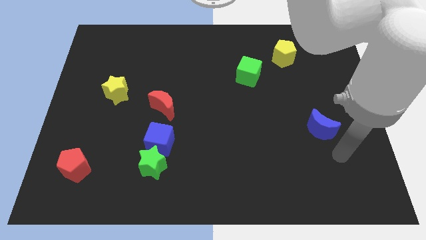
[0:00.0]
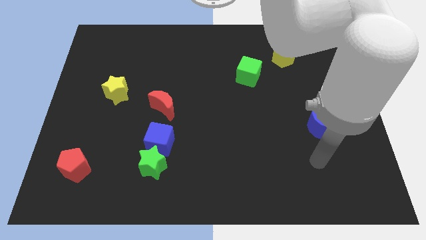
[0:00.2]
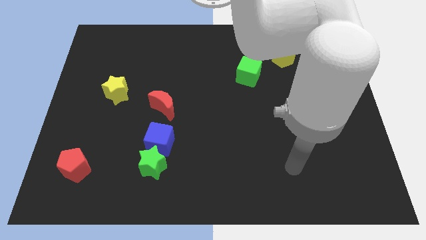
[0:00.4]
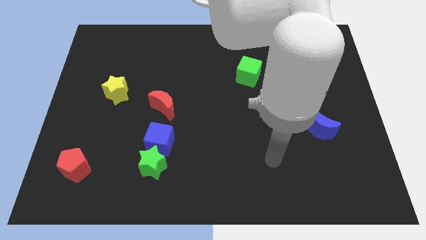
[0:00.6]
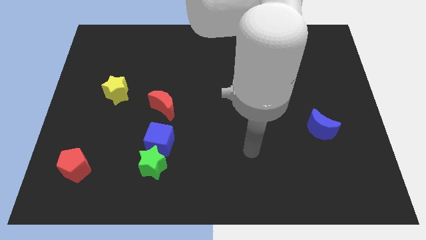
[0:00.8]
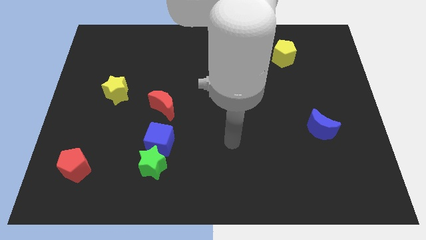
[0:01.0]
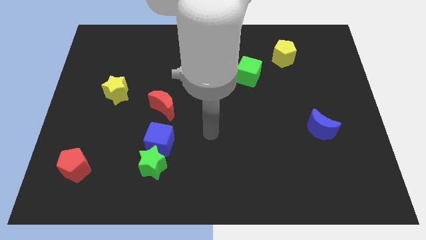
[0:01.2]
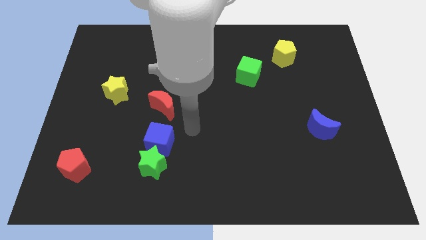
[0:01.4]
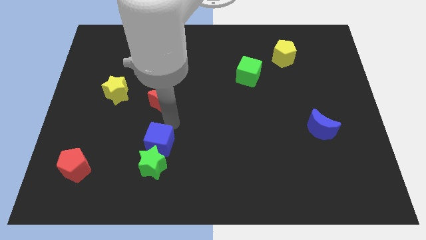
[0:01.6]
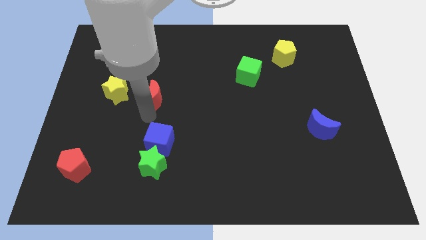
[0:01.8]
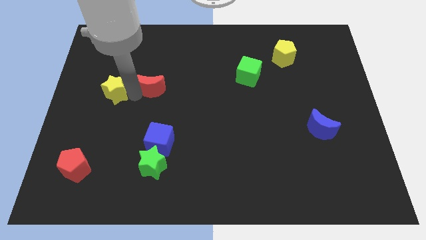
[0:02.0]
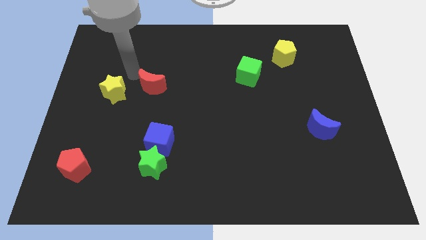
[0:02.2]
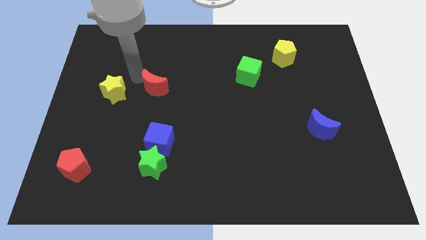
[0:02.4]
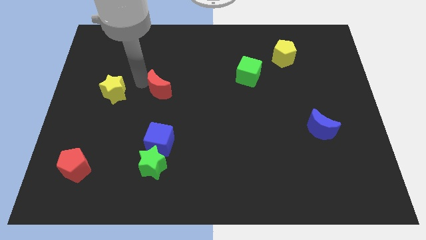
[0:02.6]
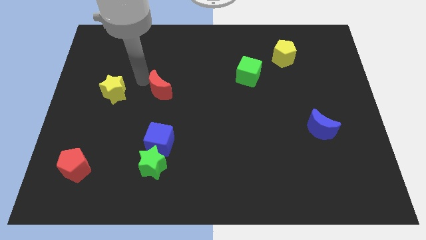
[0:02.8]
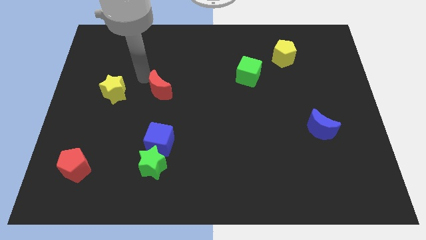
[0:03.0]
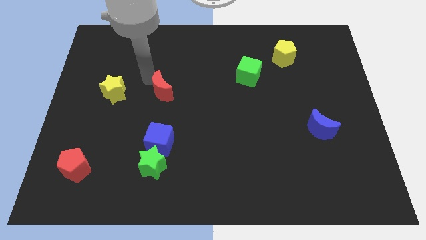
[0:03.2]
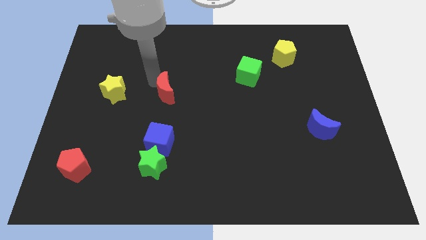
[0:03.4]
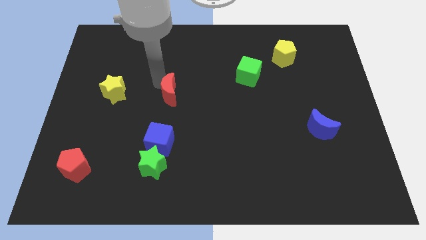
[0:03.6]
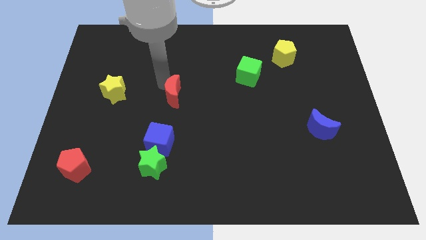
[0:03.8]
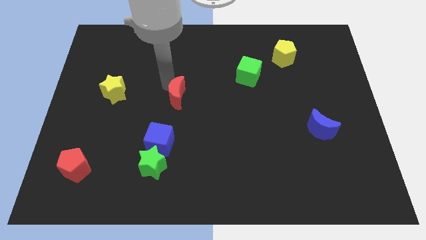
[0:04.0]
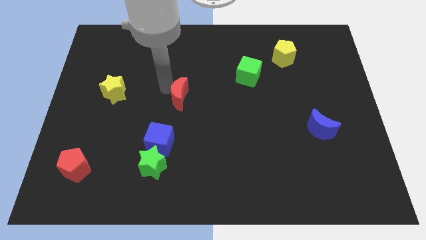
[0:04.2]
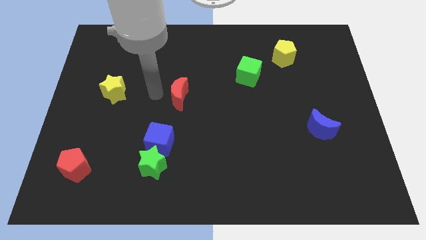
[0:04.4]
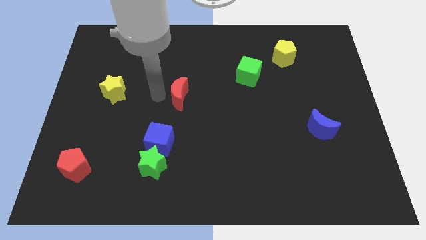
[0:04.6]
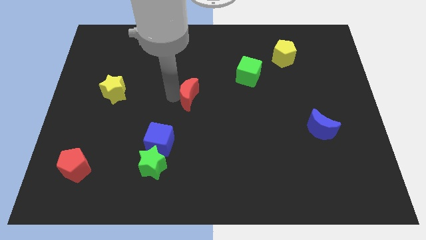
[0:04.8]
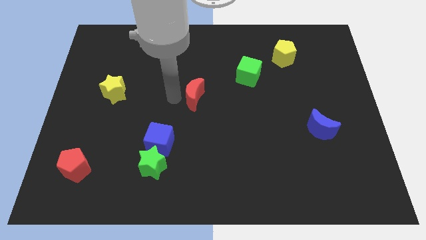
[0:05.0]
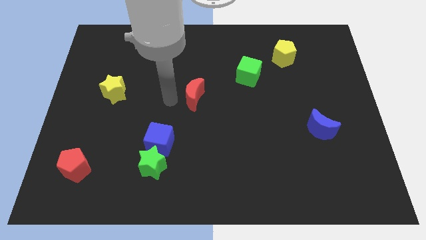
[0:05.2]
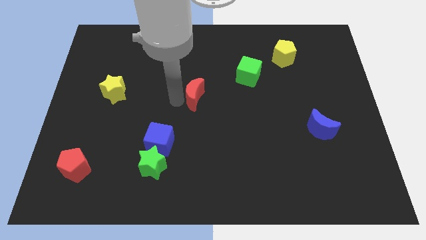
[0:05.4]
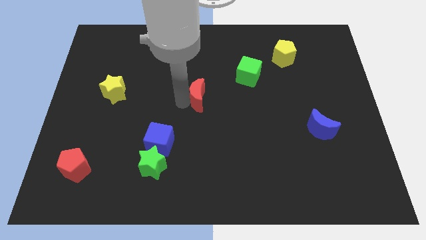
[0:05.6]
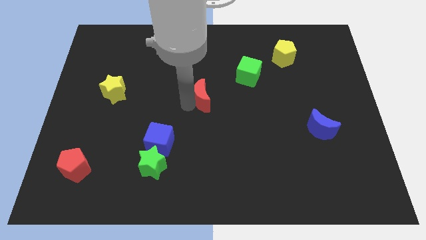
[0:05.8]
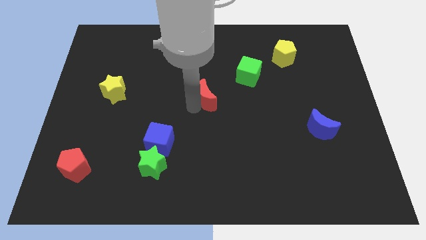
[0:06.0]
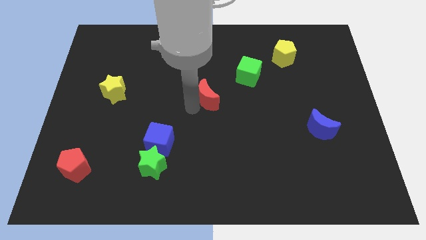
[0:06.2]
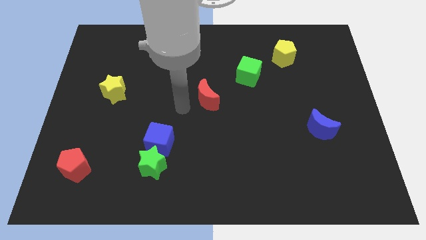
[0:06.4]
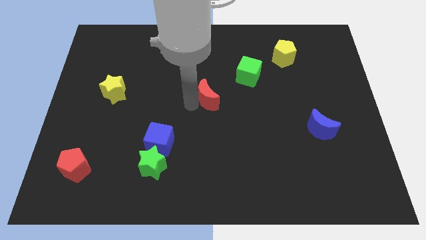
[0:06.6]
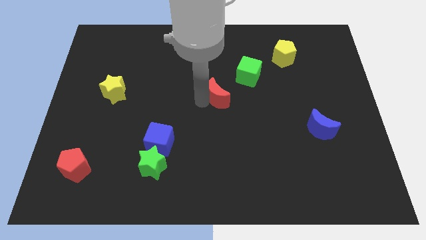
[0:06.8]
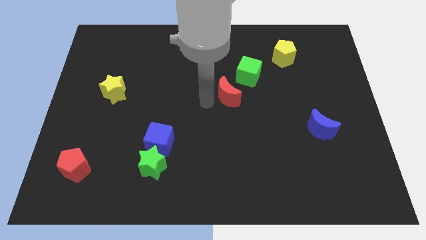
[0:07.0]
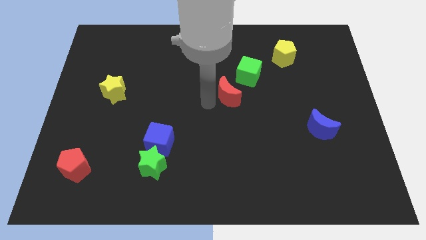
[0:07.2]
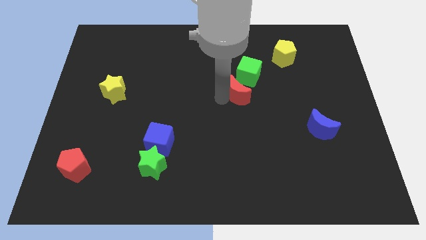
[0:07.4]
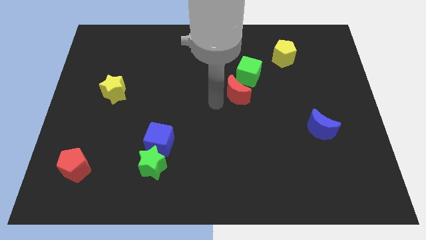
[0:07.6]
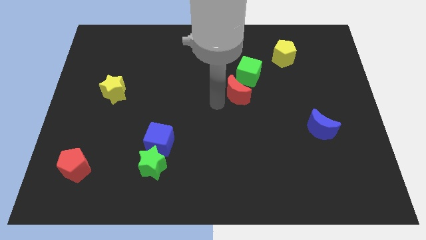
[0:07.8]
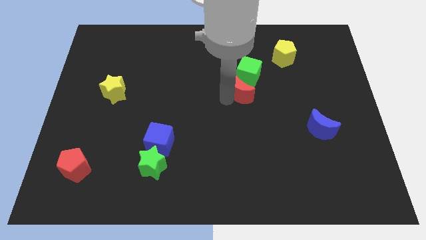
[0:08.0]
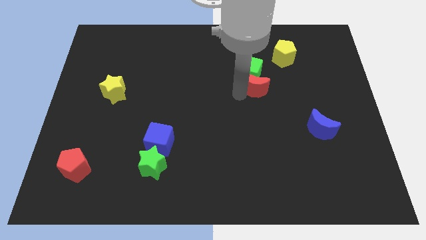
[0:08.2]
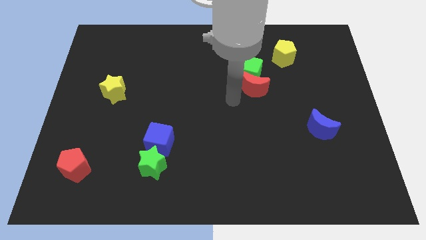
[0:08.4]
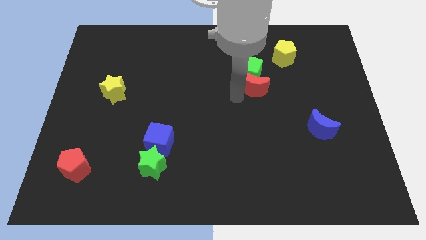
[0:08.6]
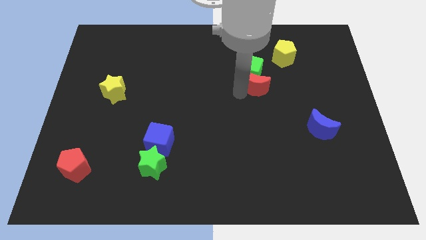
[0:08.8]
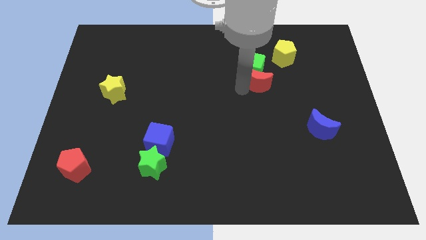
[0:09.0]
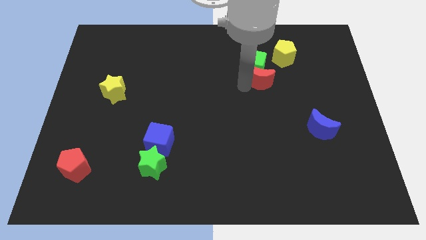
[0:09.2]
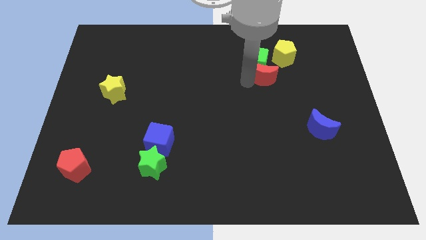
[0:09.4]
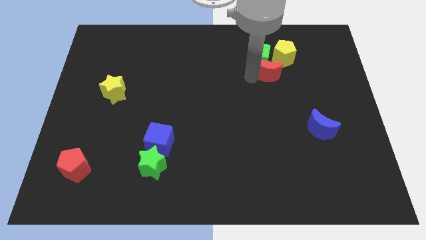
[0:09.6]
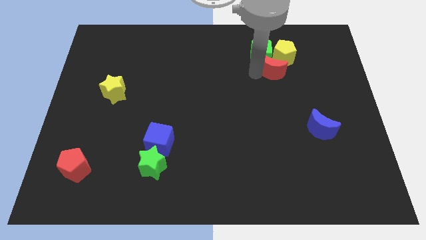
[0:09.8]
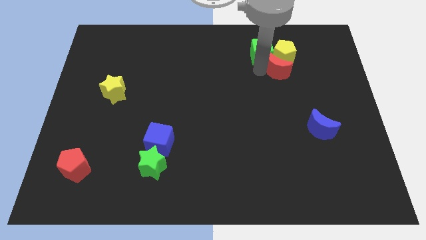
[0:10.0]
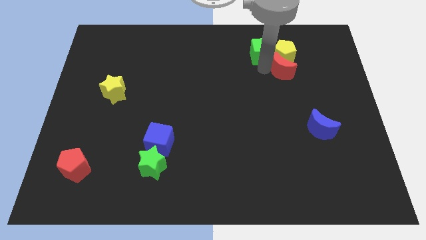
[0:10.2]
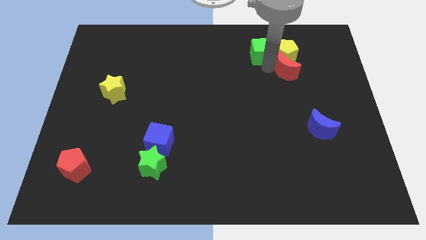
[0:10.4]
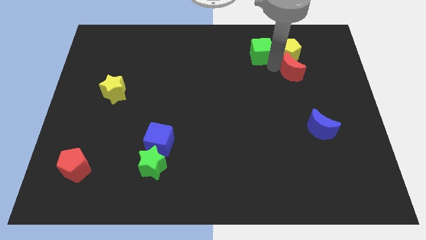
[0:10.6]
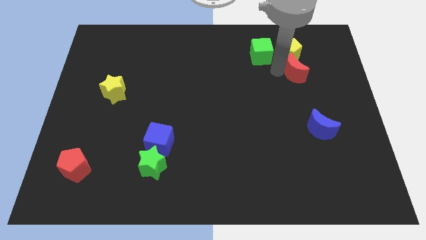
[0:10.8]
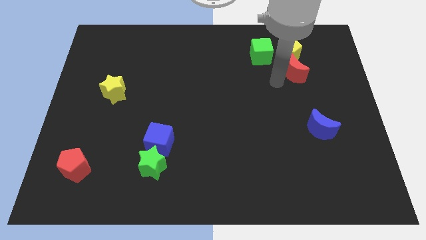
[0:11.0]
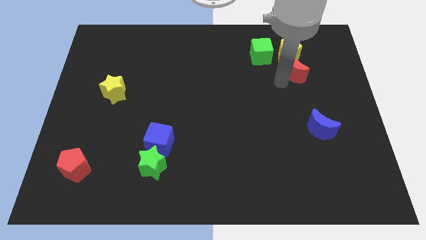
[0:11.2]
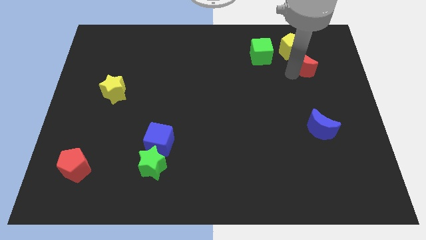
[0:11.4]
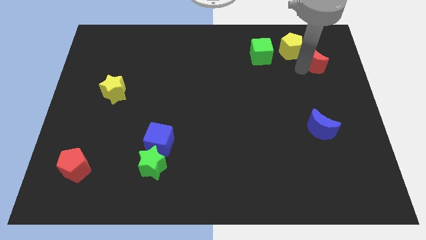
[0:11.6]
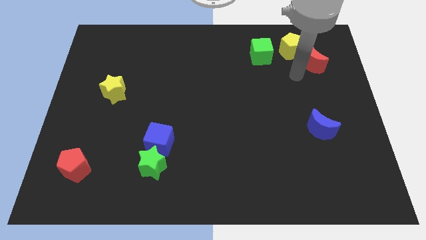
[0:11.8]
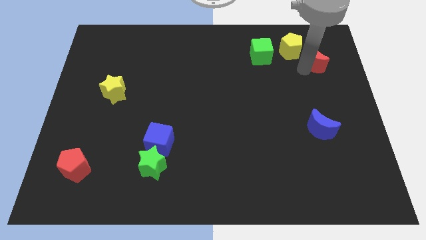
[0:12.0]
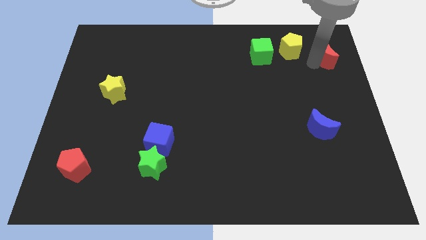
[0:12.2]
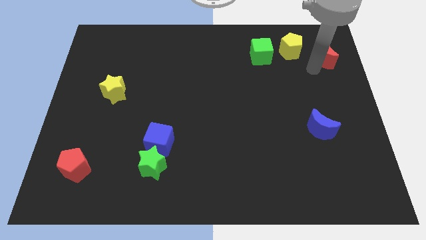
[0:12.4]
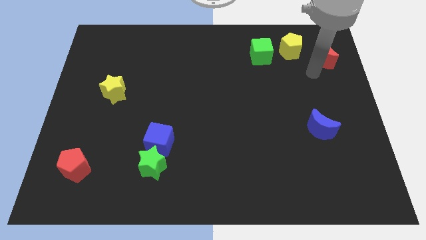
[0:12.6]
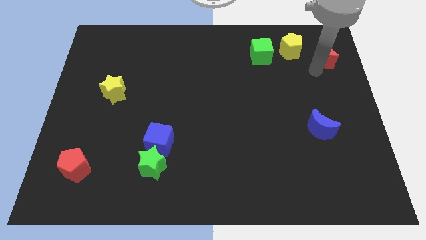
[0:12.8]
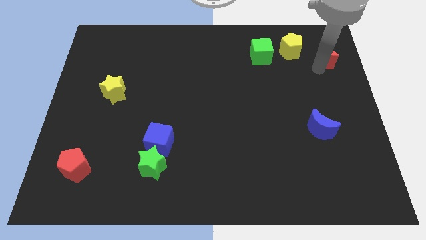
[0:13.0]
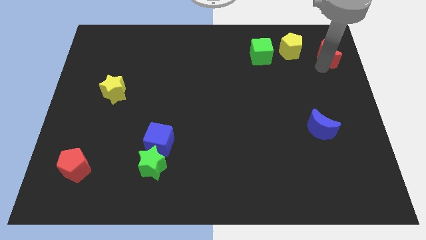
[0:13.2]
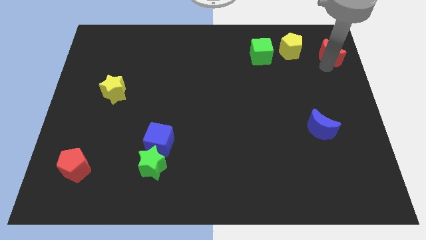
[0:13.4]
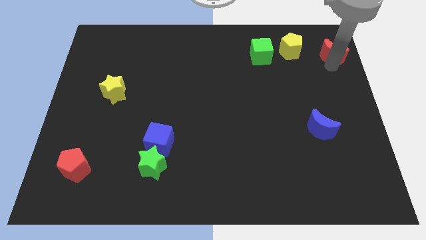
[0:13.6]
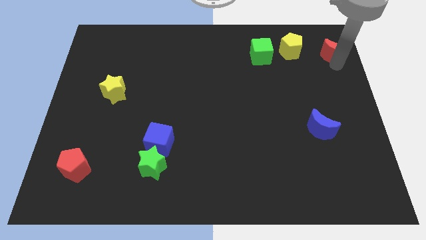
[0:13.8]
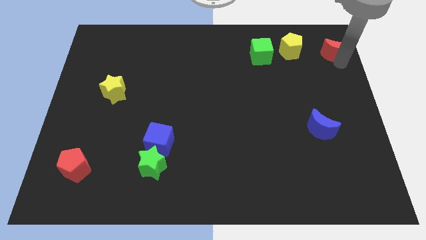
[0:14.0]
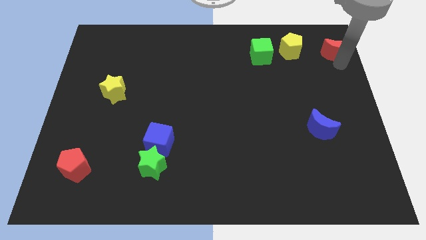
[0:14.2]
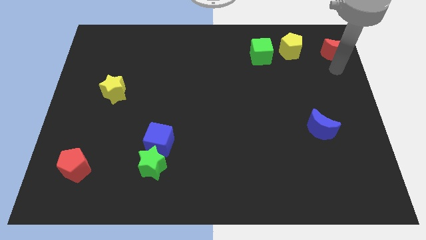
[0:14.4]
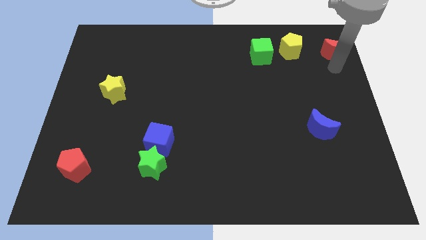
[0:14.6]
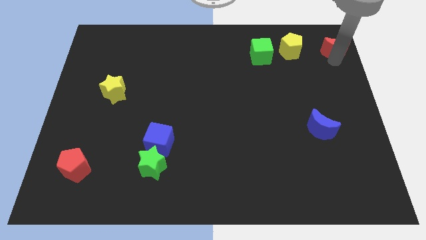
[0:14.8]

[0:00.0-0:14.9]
put the red moon to the top right of the board
